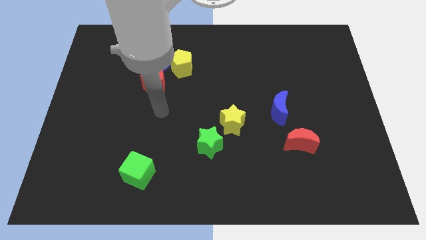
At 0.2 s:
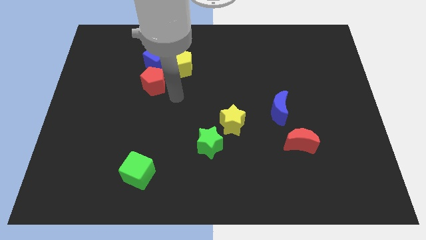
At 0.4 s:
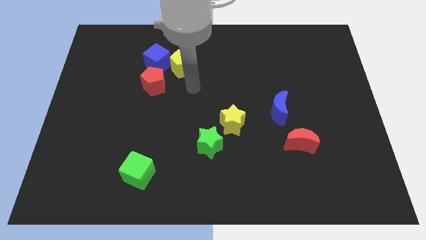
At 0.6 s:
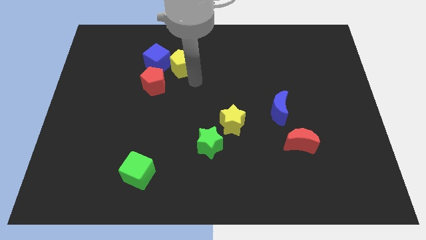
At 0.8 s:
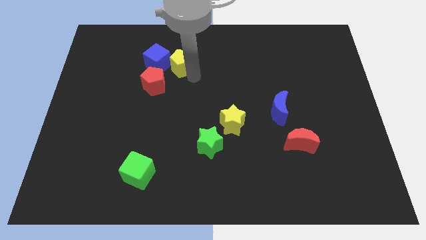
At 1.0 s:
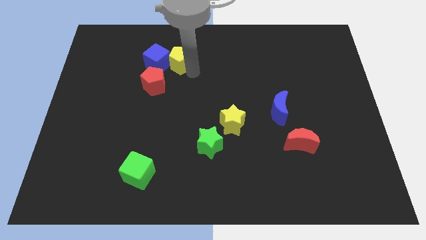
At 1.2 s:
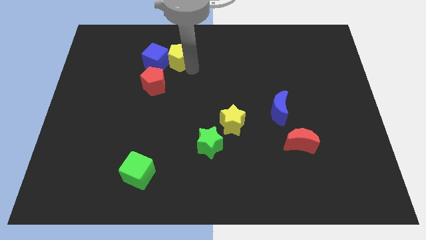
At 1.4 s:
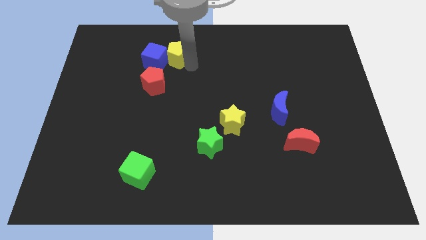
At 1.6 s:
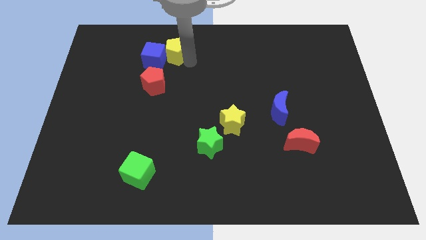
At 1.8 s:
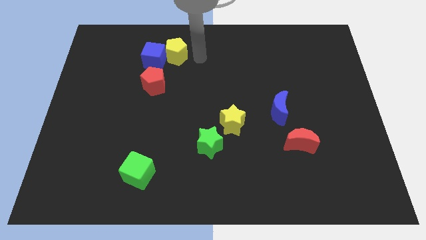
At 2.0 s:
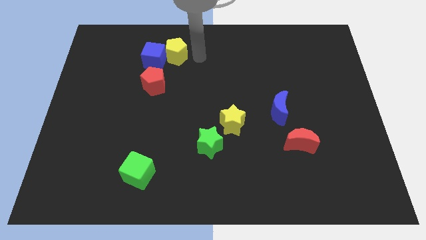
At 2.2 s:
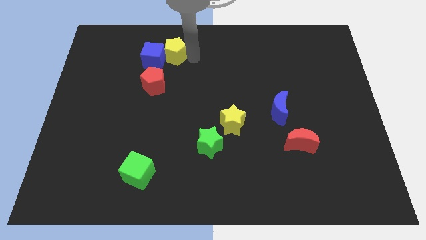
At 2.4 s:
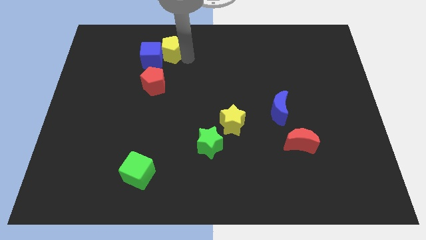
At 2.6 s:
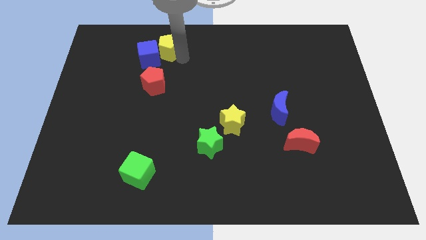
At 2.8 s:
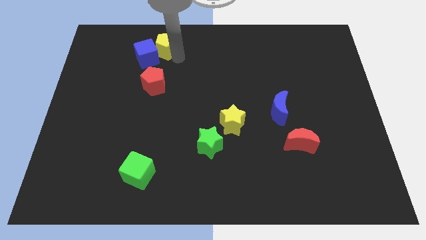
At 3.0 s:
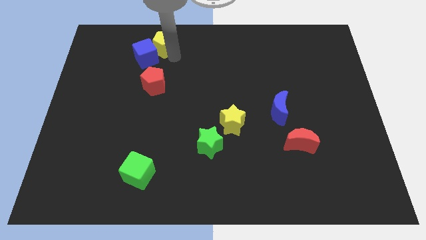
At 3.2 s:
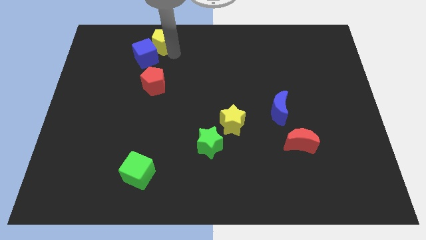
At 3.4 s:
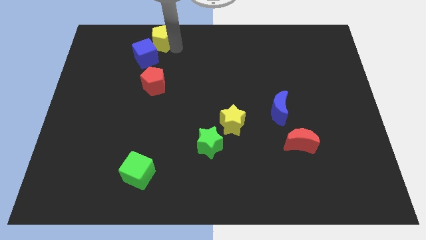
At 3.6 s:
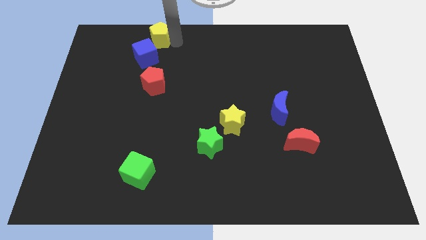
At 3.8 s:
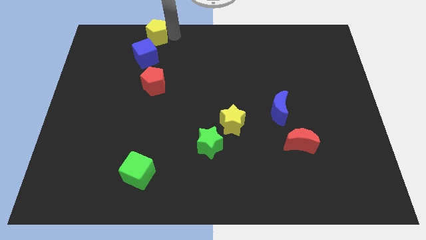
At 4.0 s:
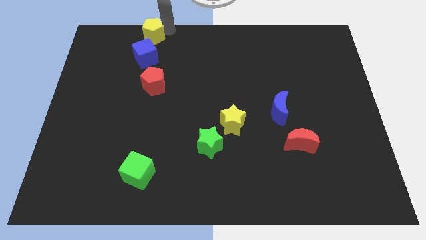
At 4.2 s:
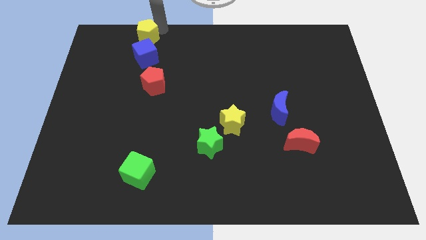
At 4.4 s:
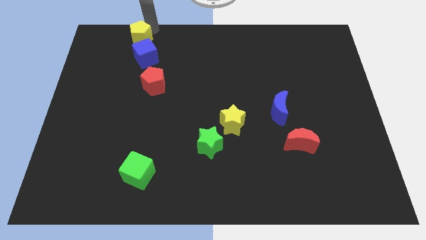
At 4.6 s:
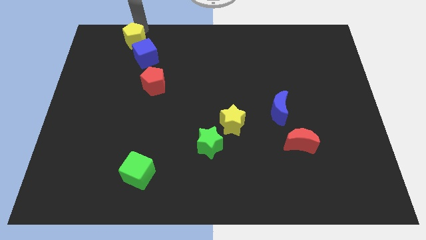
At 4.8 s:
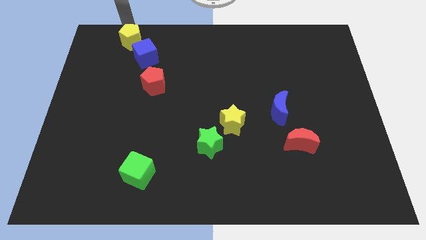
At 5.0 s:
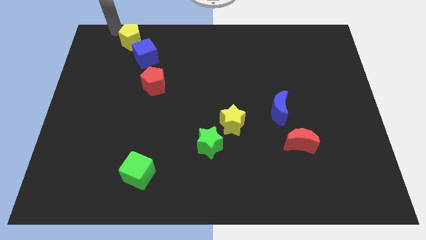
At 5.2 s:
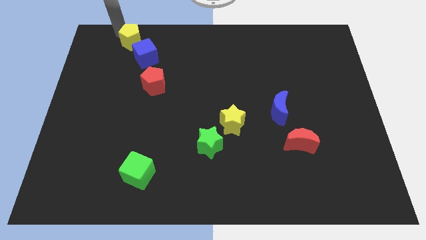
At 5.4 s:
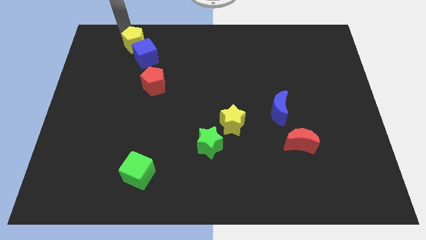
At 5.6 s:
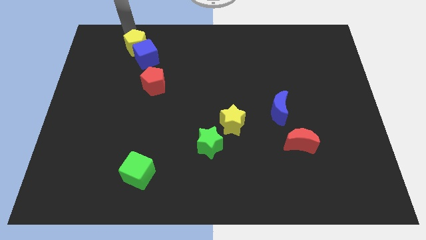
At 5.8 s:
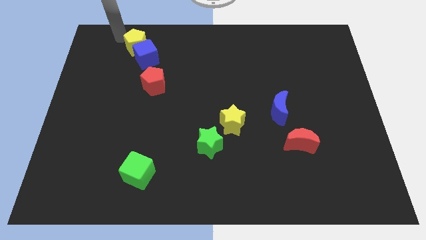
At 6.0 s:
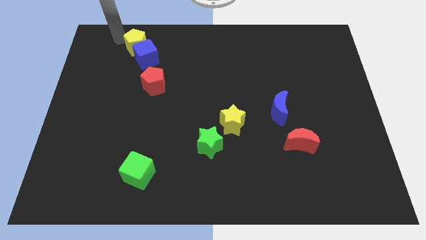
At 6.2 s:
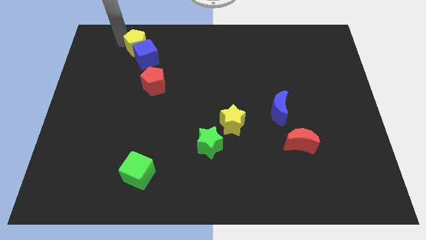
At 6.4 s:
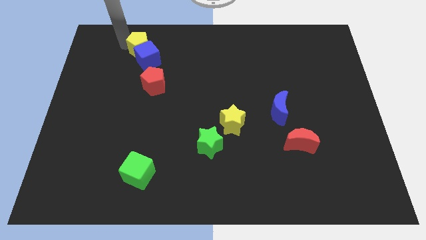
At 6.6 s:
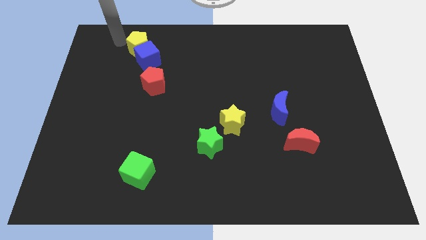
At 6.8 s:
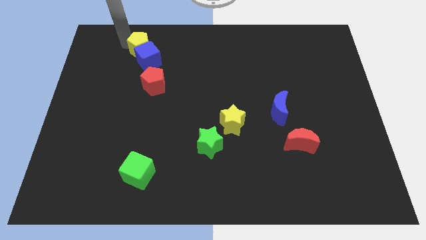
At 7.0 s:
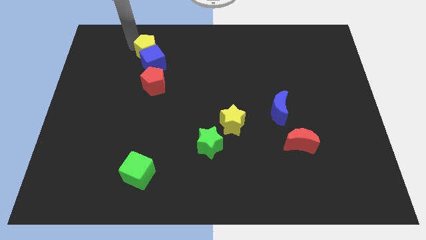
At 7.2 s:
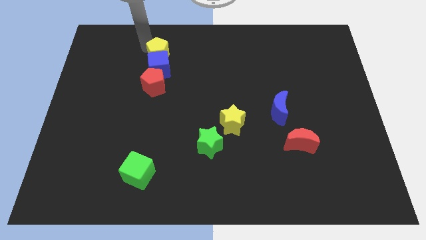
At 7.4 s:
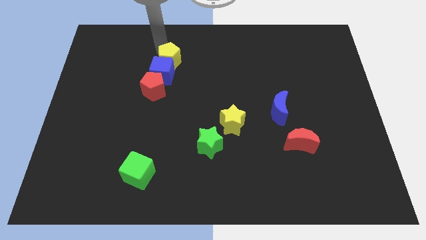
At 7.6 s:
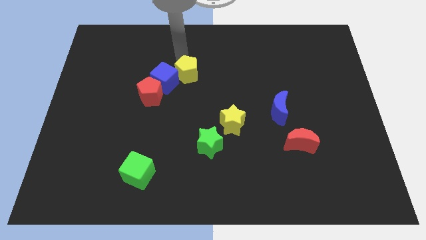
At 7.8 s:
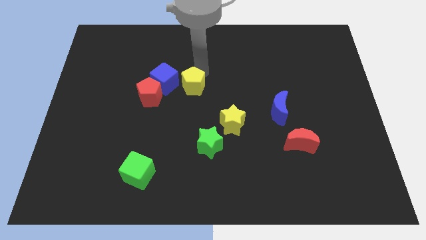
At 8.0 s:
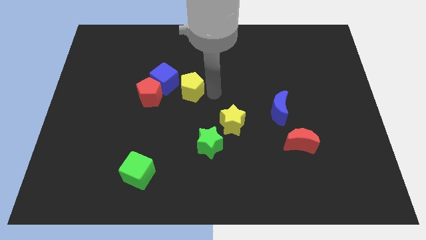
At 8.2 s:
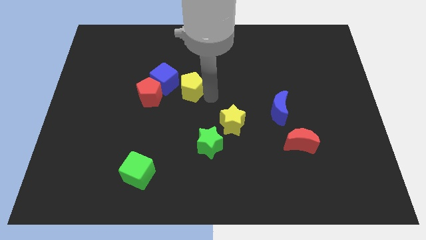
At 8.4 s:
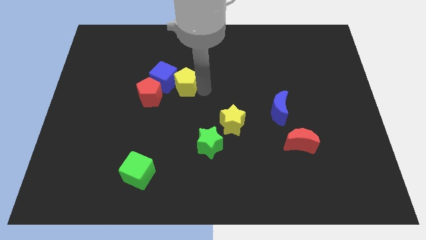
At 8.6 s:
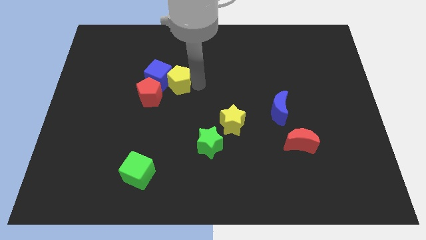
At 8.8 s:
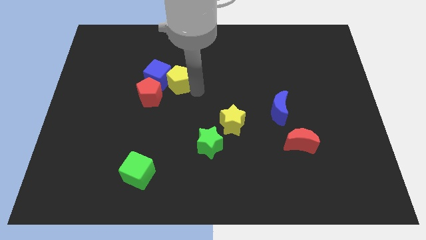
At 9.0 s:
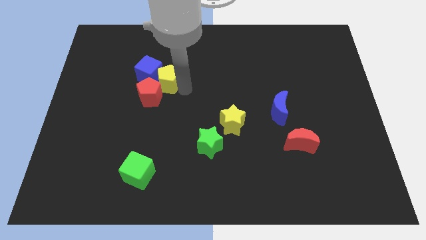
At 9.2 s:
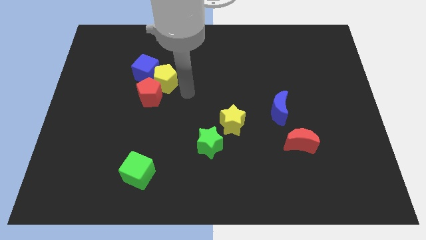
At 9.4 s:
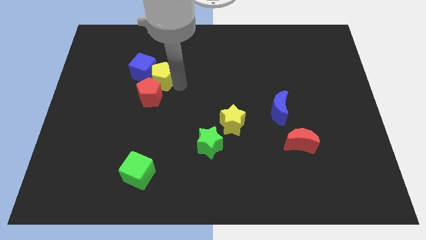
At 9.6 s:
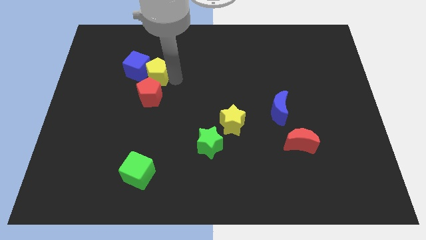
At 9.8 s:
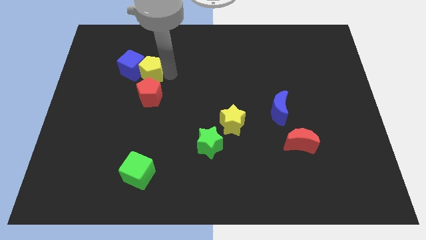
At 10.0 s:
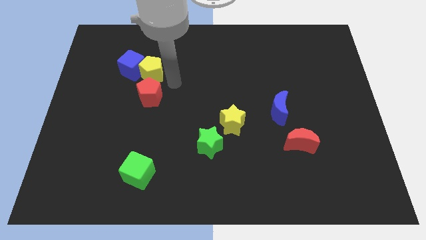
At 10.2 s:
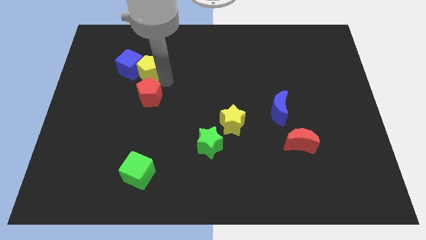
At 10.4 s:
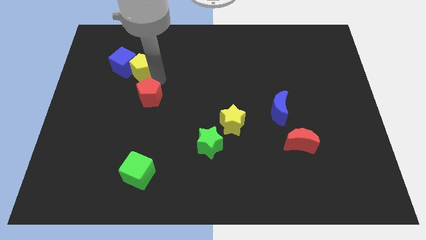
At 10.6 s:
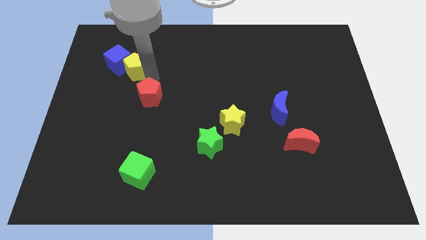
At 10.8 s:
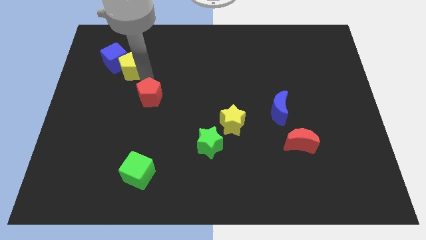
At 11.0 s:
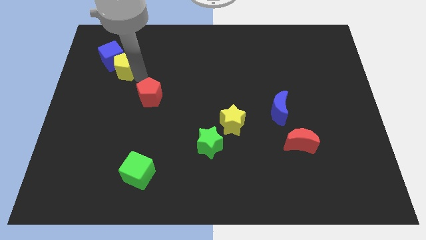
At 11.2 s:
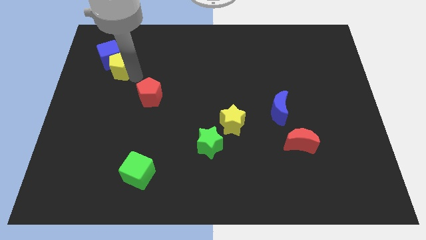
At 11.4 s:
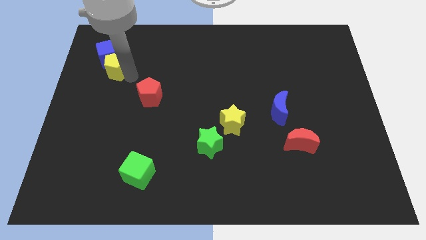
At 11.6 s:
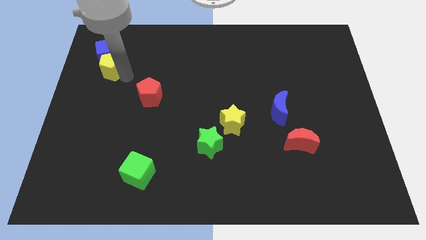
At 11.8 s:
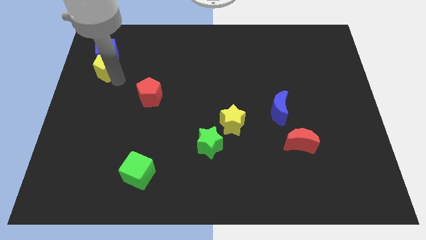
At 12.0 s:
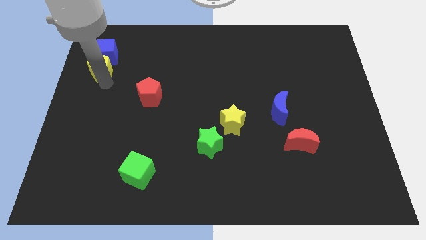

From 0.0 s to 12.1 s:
move the yellow pentagon to the left side
